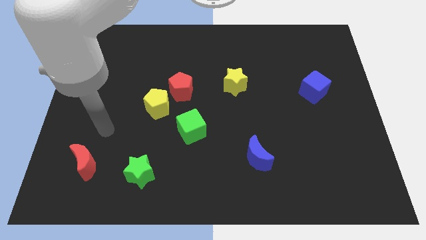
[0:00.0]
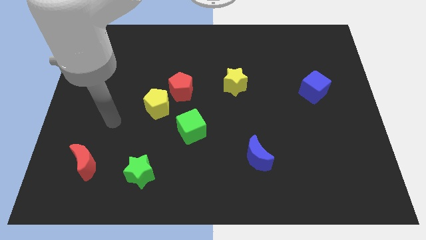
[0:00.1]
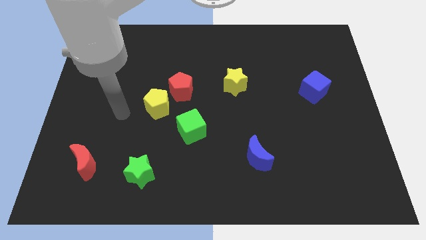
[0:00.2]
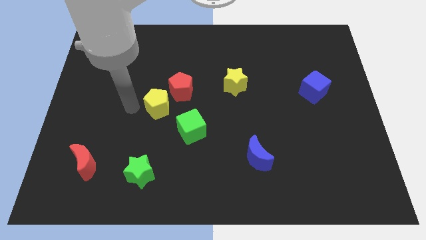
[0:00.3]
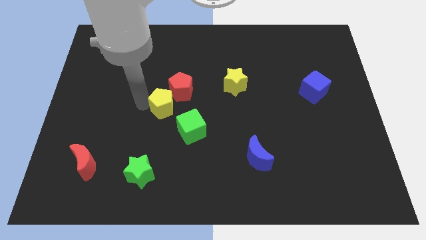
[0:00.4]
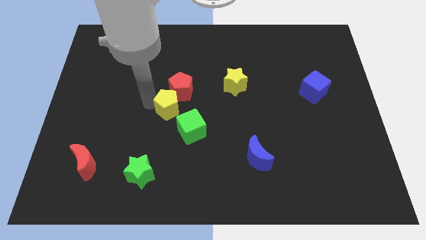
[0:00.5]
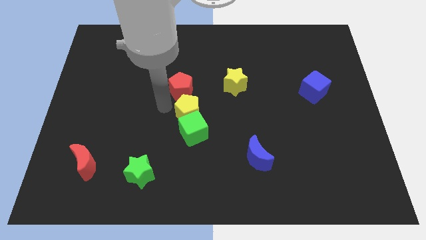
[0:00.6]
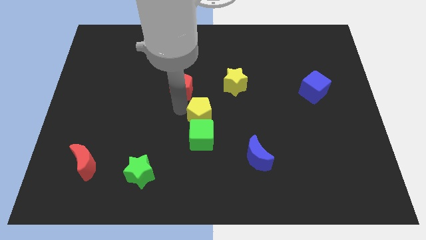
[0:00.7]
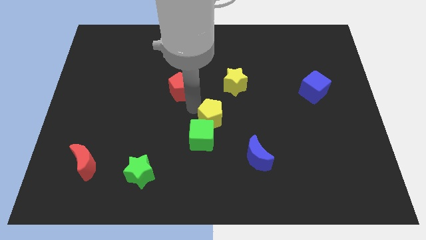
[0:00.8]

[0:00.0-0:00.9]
pull the red pentagon apart from the yellow pentagon

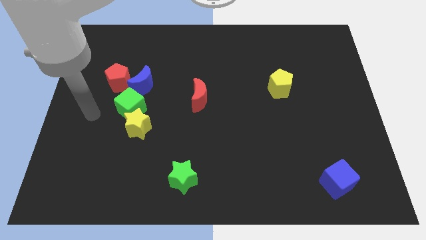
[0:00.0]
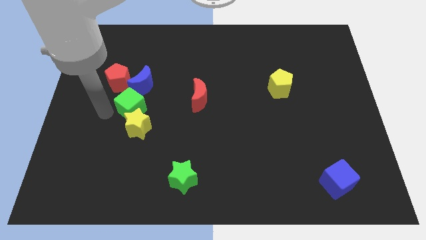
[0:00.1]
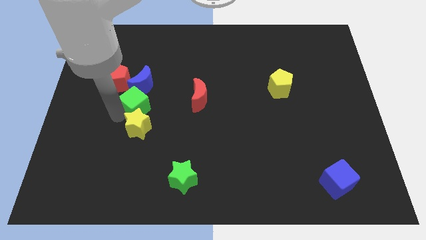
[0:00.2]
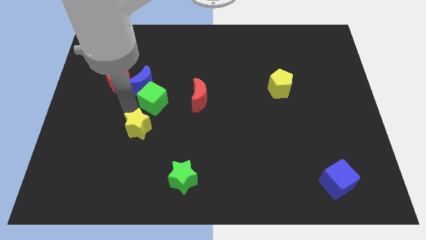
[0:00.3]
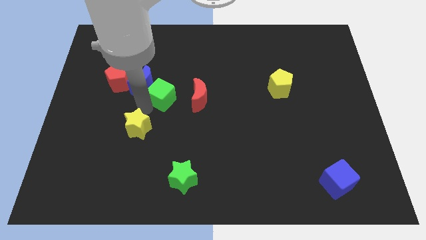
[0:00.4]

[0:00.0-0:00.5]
move the yellow star away from the green cube

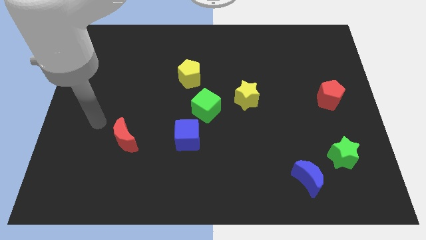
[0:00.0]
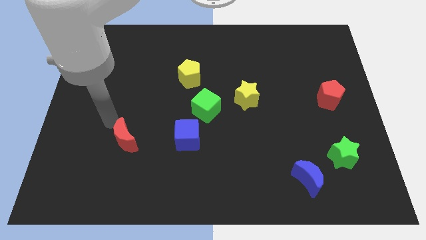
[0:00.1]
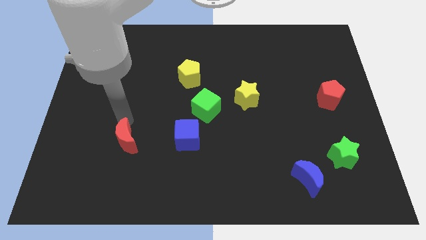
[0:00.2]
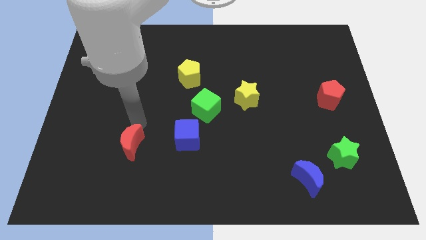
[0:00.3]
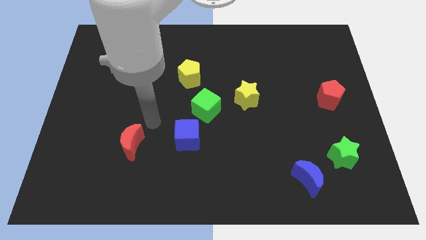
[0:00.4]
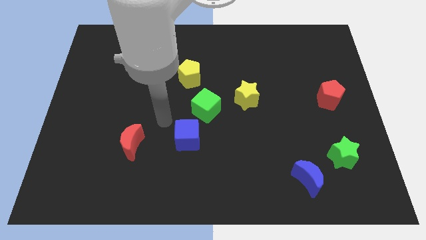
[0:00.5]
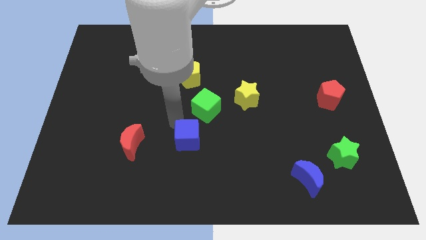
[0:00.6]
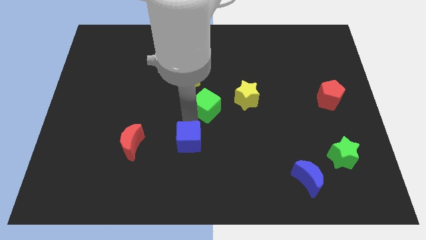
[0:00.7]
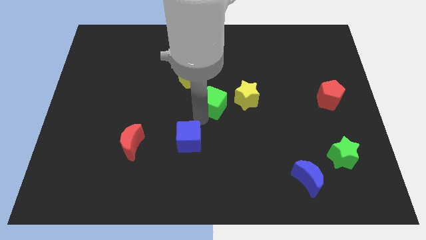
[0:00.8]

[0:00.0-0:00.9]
pull the blue cube apart from the green cube

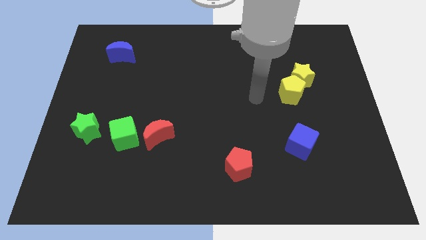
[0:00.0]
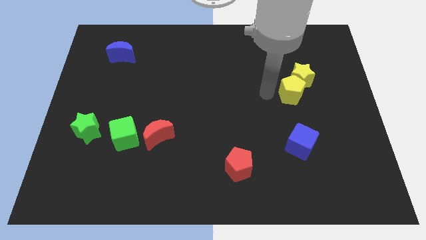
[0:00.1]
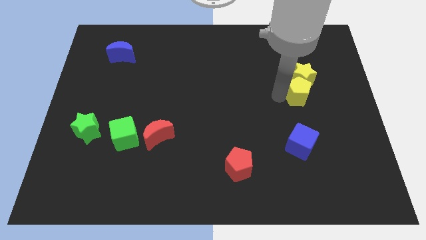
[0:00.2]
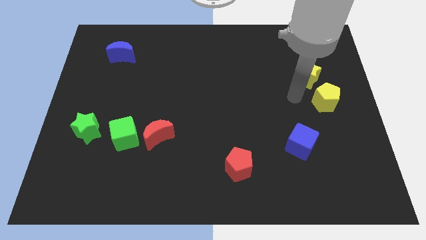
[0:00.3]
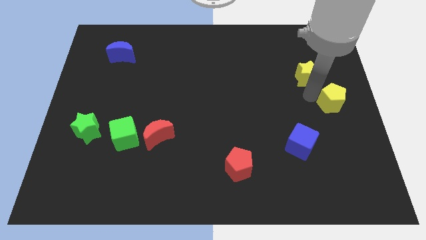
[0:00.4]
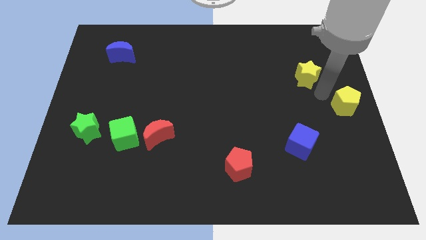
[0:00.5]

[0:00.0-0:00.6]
move the yellow star away from the yellow pentagon

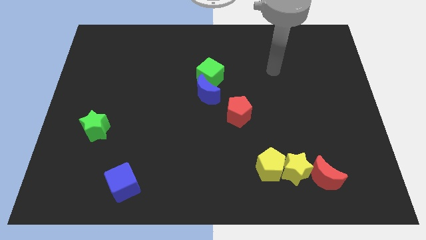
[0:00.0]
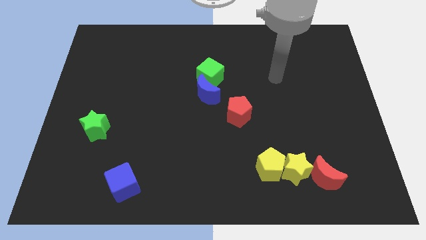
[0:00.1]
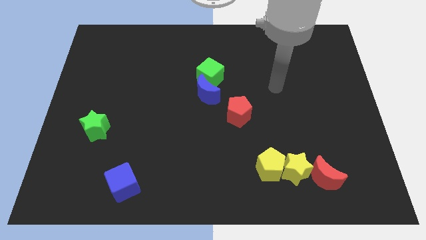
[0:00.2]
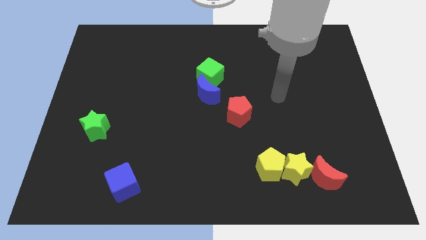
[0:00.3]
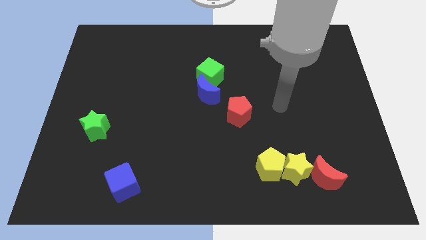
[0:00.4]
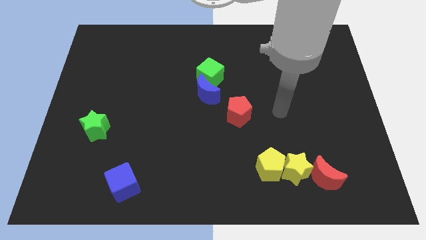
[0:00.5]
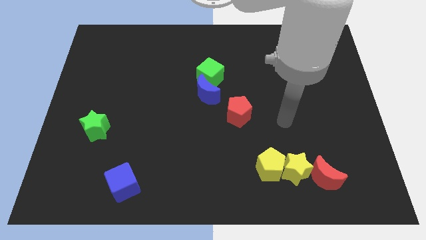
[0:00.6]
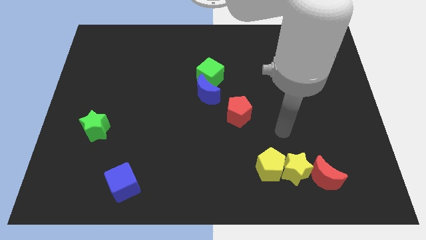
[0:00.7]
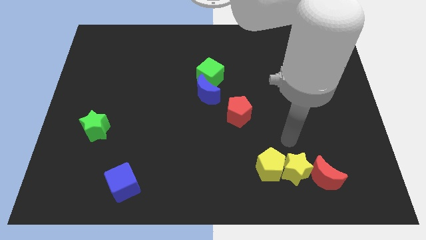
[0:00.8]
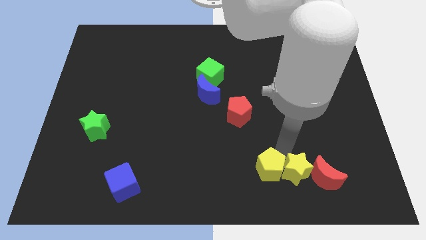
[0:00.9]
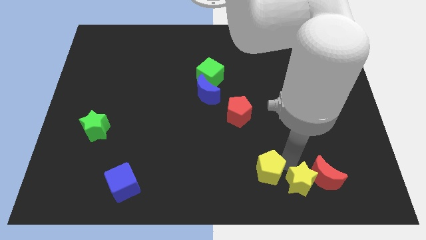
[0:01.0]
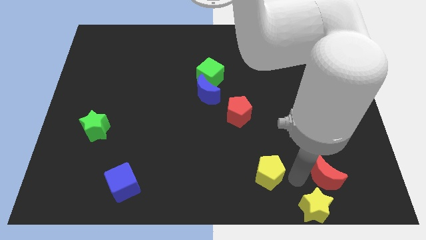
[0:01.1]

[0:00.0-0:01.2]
move the yellow pentagon away from the yellow star

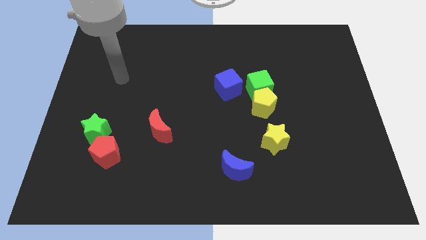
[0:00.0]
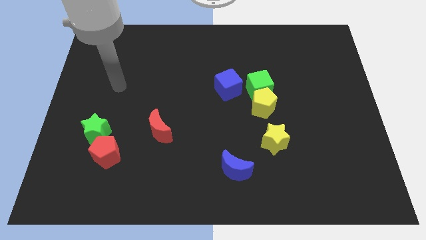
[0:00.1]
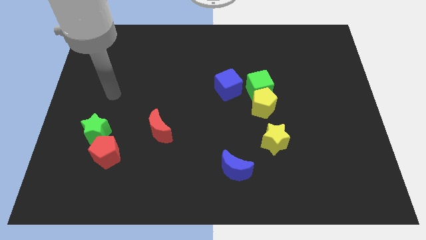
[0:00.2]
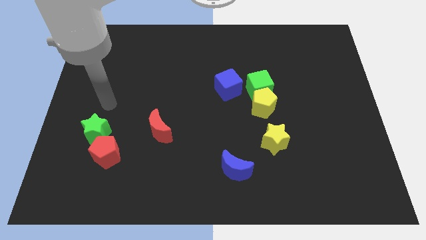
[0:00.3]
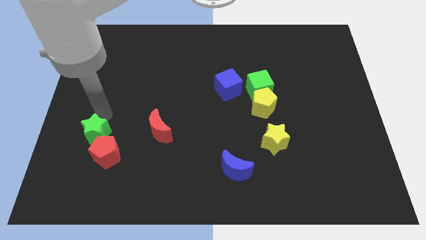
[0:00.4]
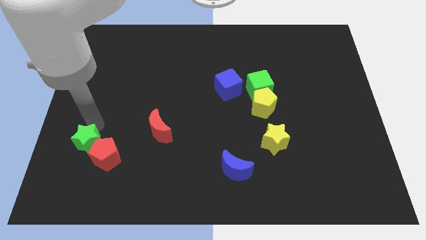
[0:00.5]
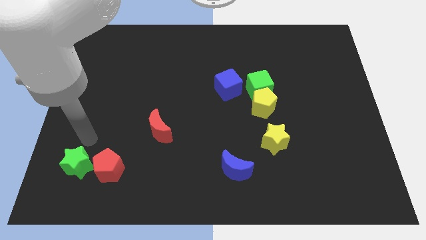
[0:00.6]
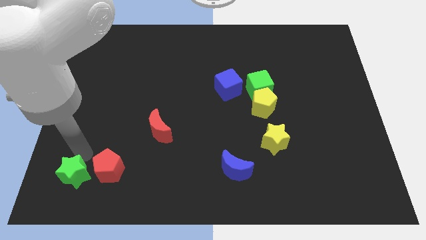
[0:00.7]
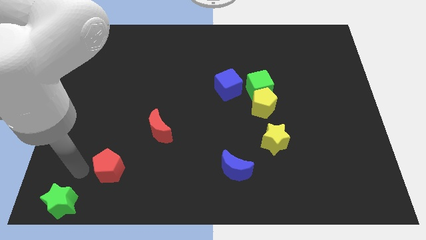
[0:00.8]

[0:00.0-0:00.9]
separate the red pentagon from the green star

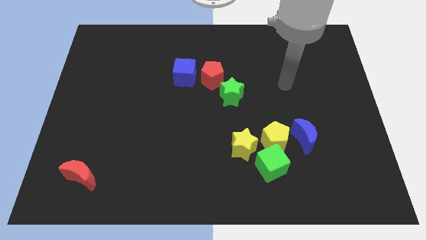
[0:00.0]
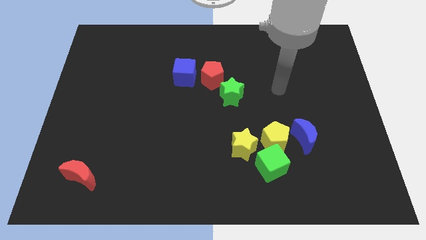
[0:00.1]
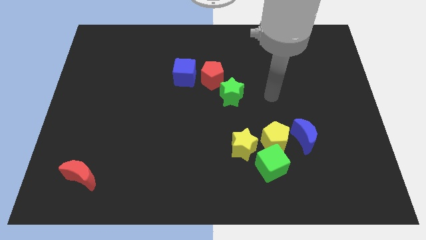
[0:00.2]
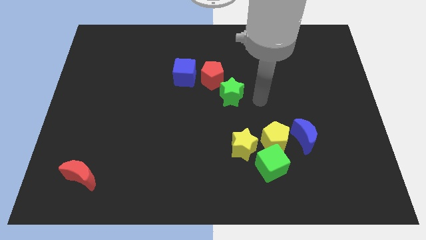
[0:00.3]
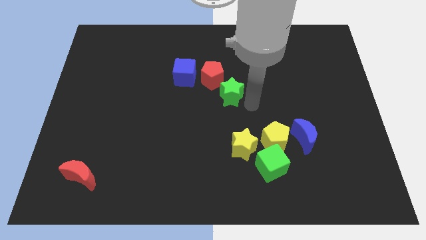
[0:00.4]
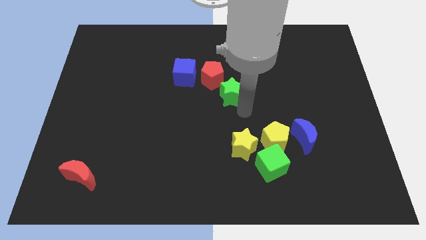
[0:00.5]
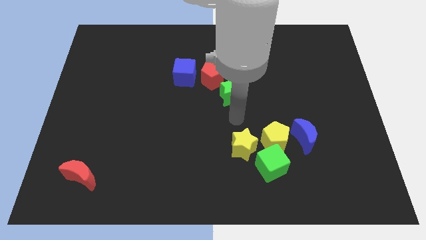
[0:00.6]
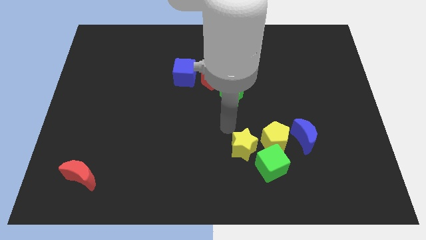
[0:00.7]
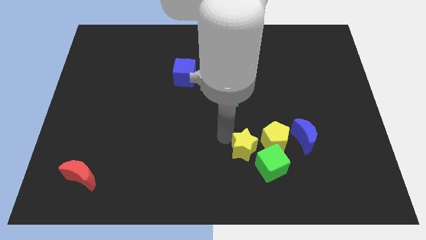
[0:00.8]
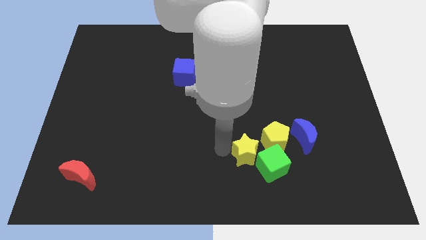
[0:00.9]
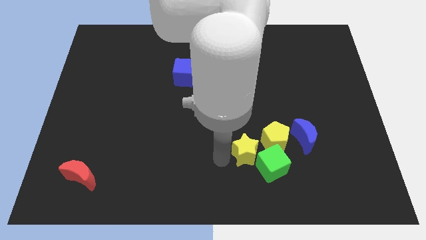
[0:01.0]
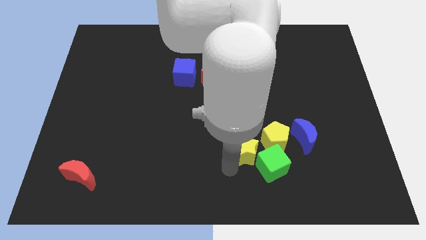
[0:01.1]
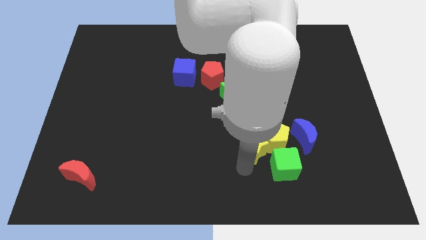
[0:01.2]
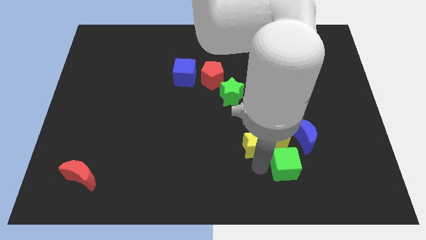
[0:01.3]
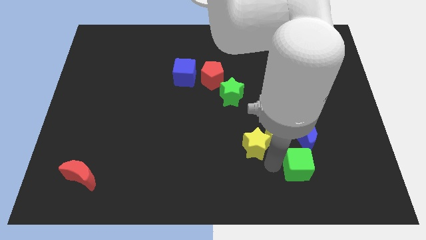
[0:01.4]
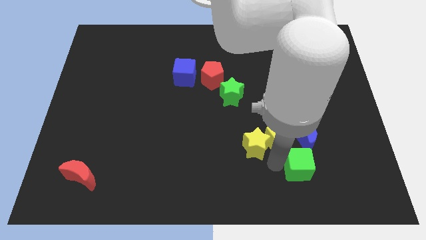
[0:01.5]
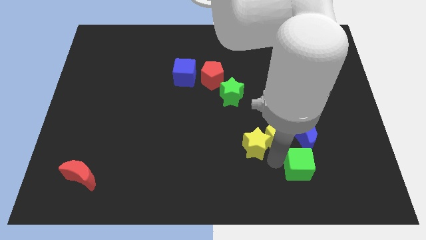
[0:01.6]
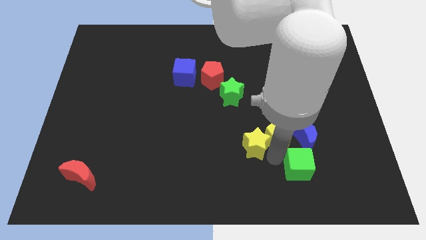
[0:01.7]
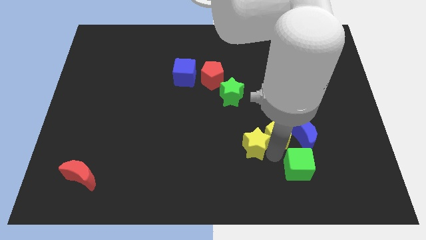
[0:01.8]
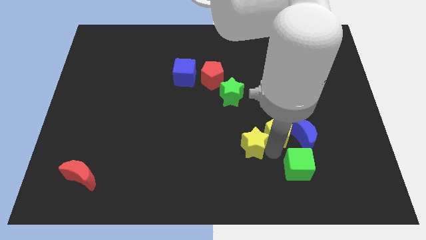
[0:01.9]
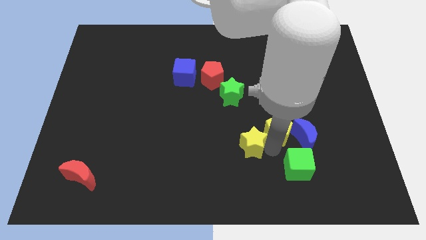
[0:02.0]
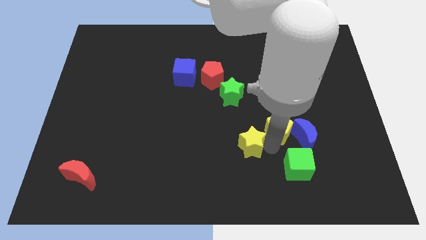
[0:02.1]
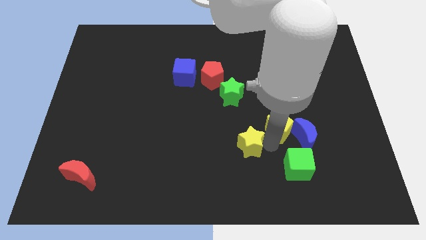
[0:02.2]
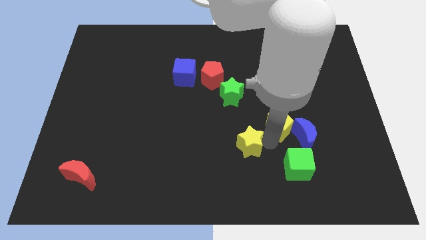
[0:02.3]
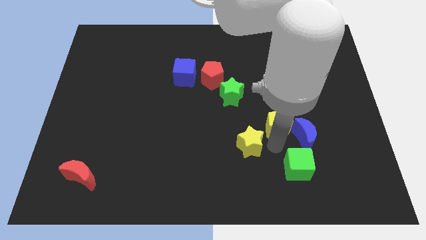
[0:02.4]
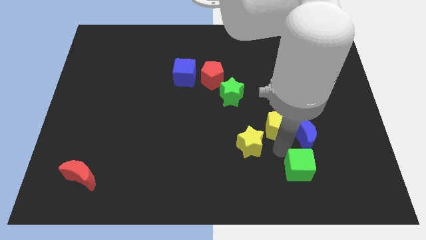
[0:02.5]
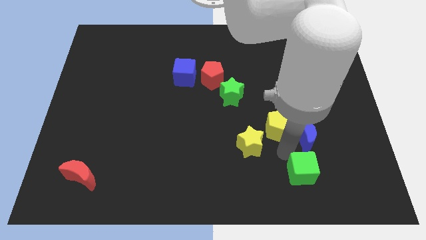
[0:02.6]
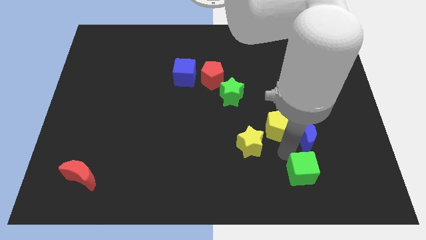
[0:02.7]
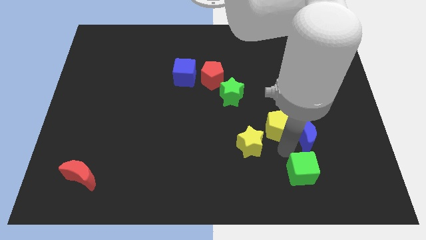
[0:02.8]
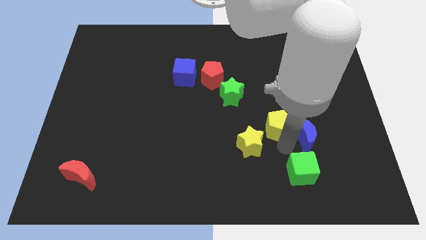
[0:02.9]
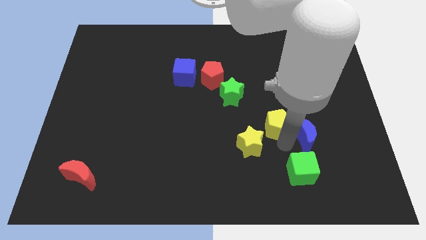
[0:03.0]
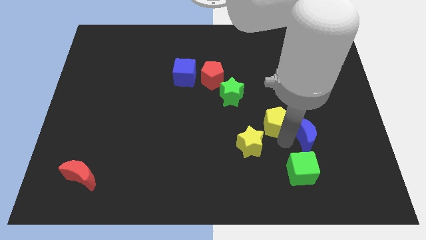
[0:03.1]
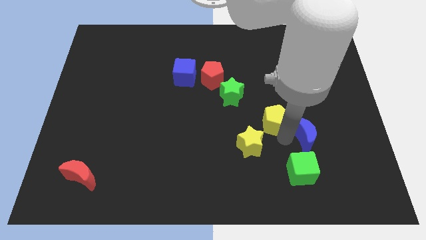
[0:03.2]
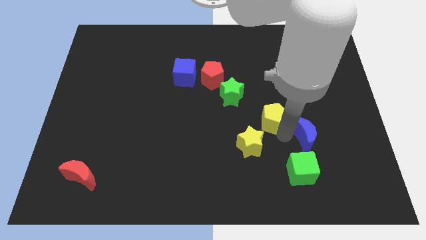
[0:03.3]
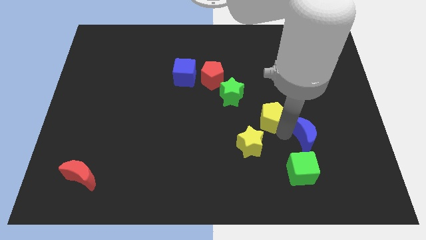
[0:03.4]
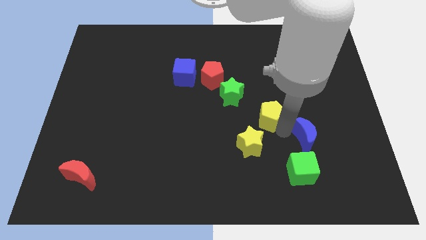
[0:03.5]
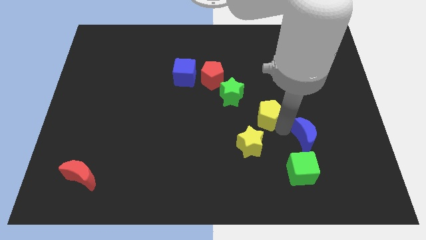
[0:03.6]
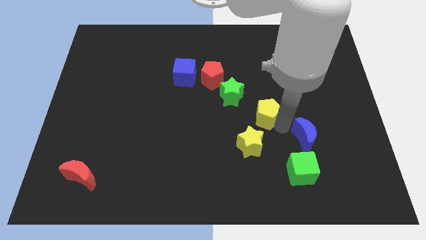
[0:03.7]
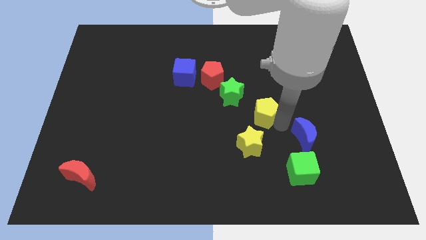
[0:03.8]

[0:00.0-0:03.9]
separate the yellow pentagon from the green cube, blue moon, and yellow star

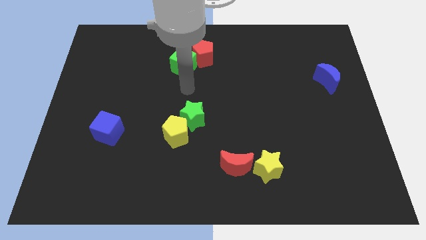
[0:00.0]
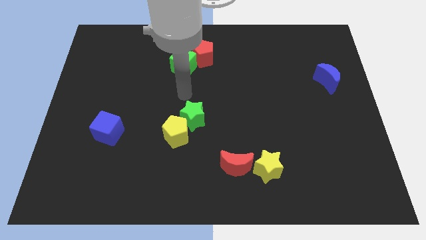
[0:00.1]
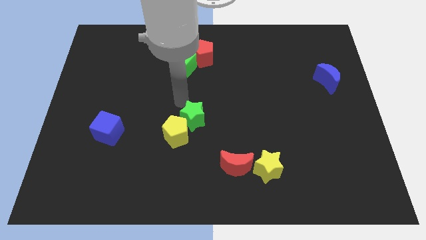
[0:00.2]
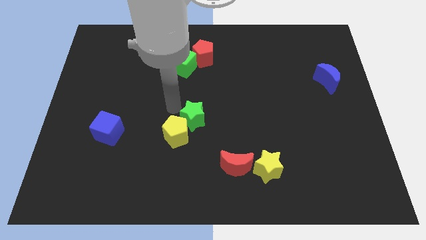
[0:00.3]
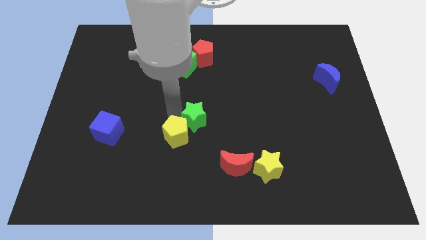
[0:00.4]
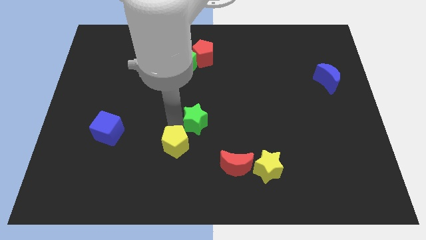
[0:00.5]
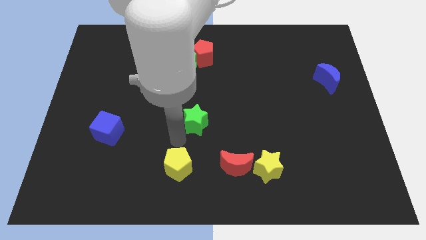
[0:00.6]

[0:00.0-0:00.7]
move the green star away from the yellow pentagon
